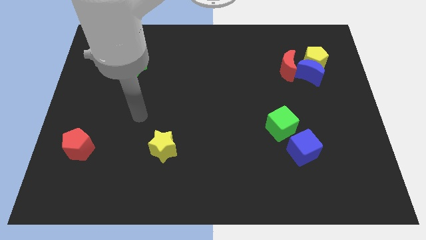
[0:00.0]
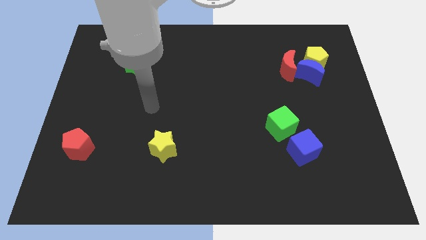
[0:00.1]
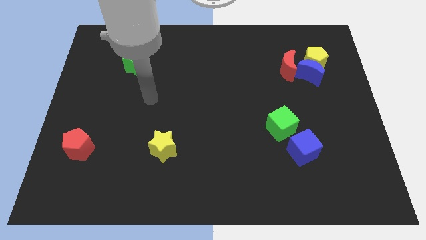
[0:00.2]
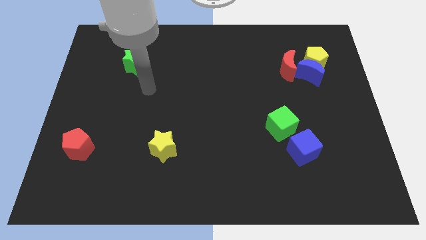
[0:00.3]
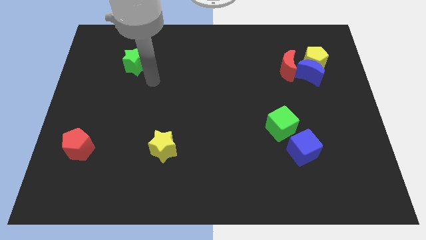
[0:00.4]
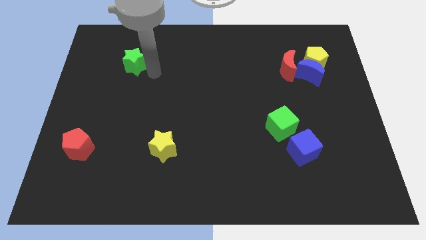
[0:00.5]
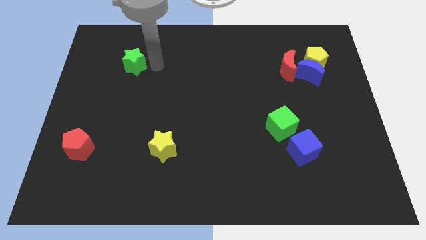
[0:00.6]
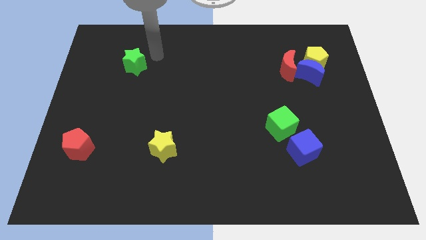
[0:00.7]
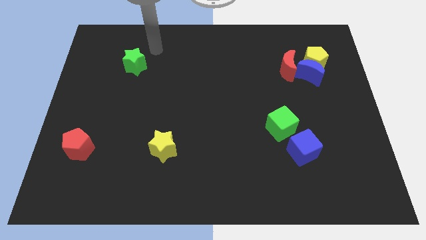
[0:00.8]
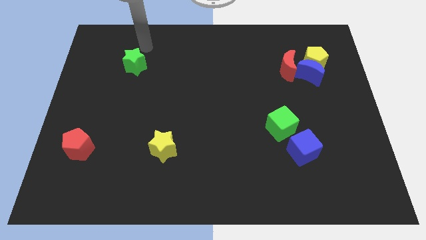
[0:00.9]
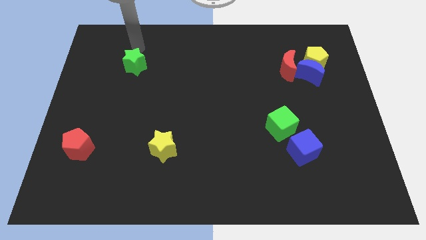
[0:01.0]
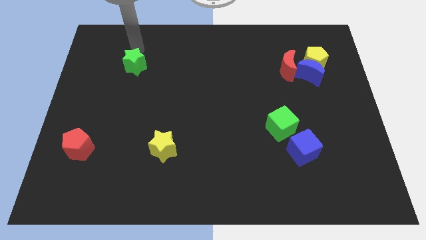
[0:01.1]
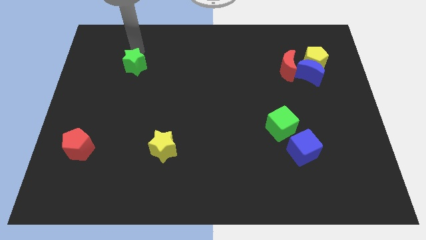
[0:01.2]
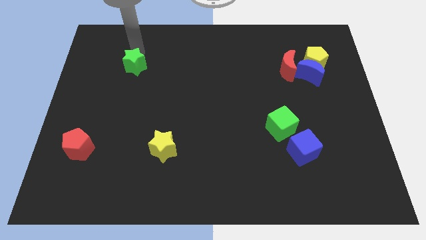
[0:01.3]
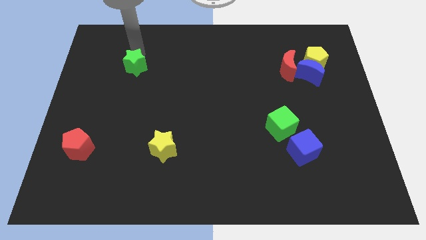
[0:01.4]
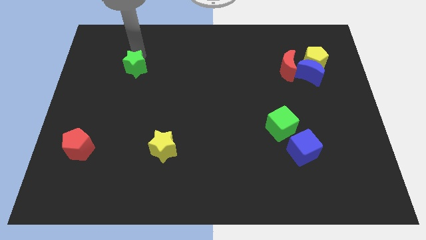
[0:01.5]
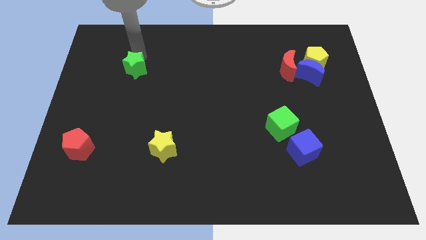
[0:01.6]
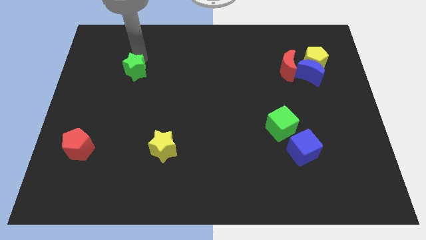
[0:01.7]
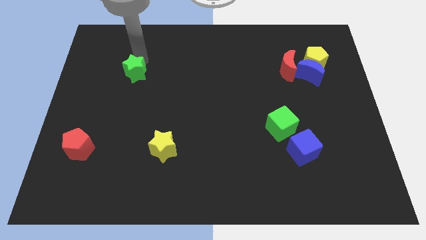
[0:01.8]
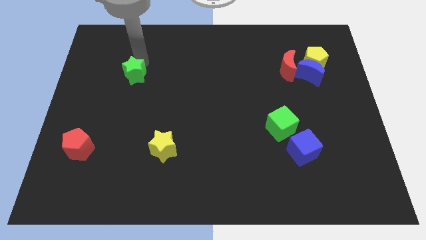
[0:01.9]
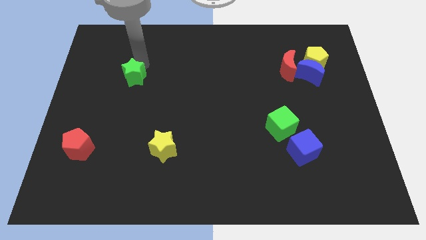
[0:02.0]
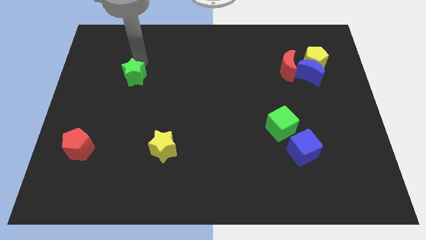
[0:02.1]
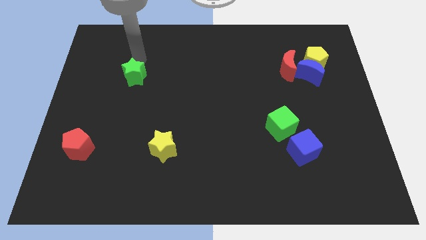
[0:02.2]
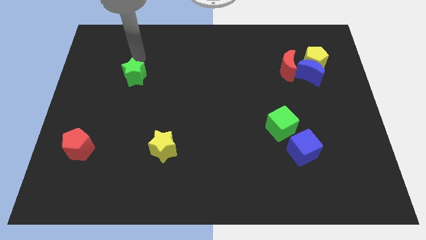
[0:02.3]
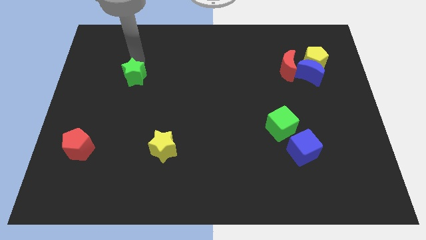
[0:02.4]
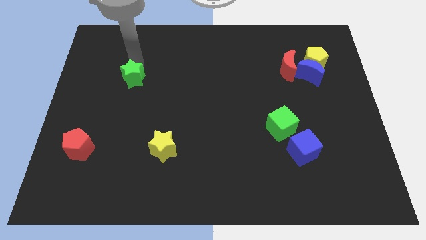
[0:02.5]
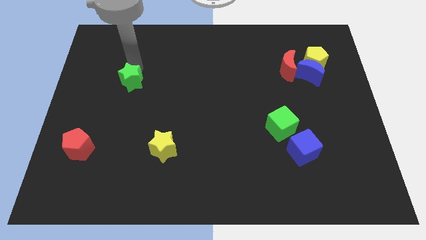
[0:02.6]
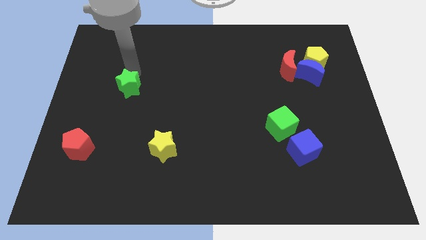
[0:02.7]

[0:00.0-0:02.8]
push the green star a little downwards

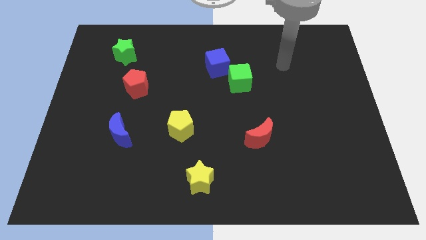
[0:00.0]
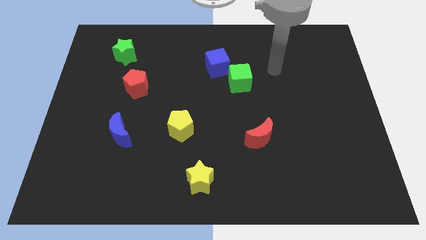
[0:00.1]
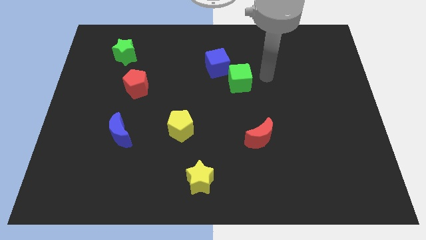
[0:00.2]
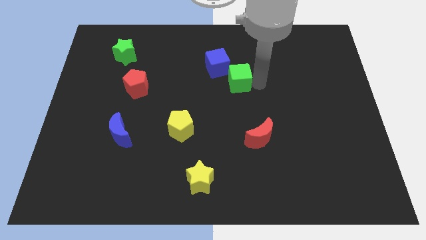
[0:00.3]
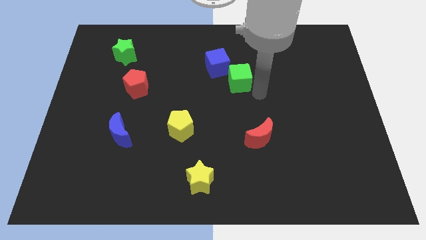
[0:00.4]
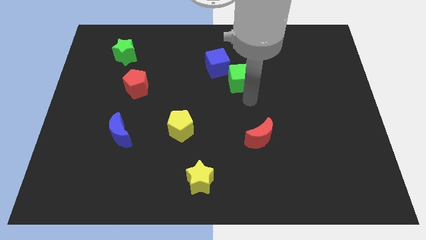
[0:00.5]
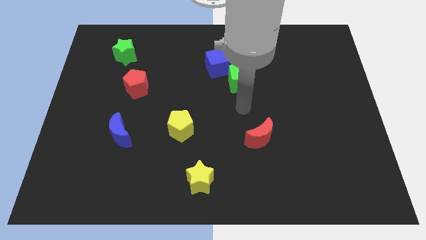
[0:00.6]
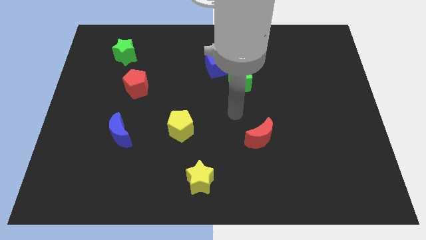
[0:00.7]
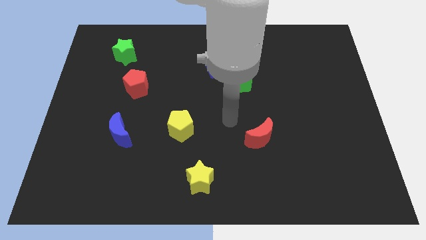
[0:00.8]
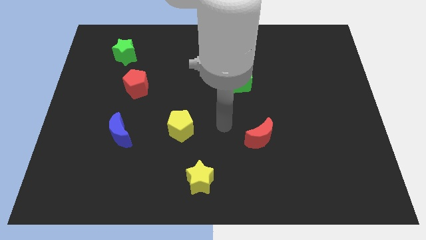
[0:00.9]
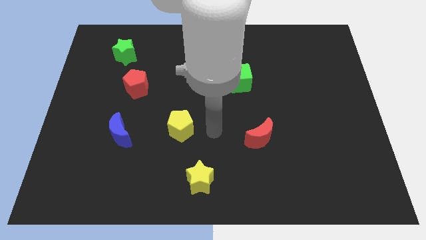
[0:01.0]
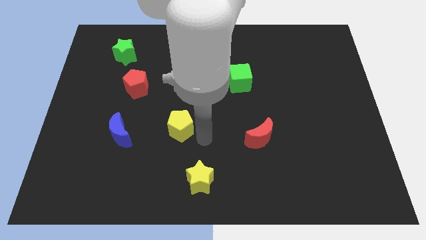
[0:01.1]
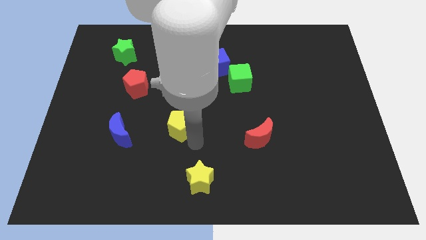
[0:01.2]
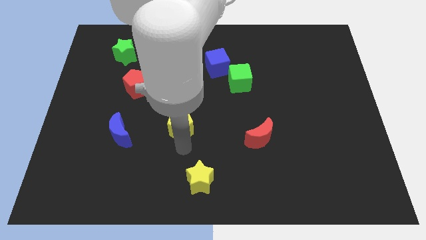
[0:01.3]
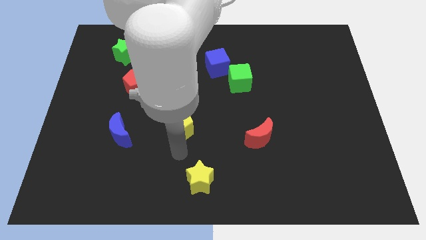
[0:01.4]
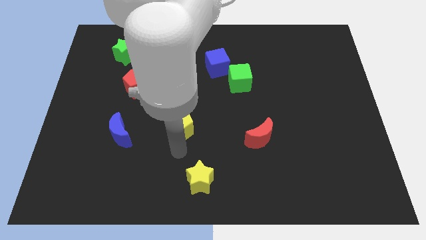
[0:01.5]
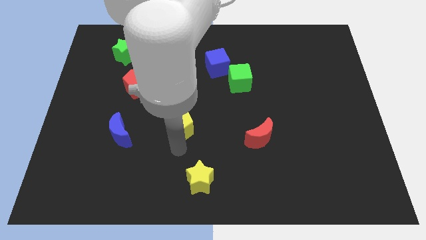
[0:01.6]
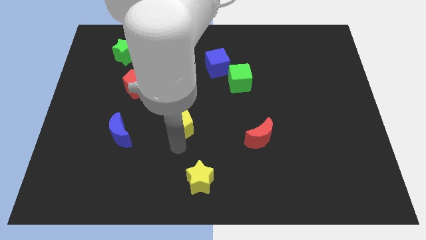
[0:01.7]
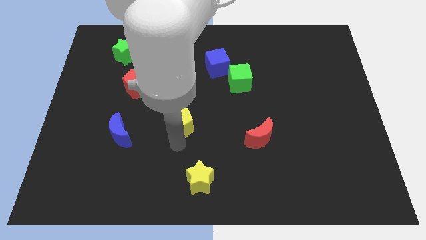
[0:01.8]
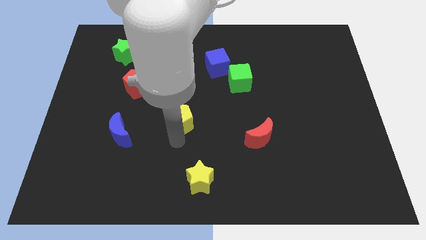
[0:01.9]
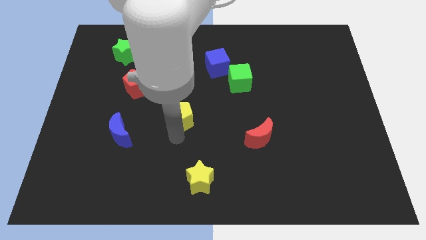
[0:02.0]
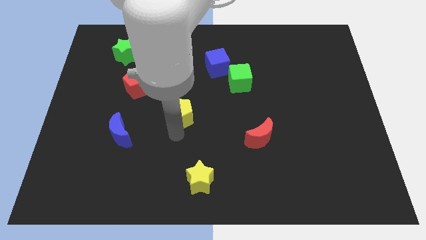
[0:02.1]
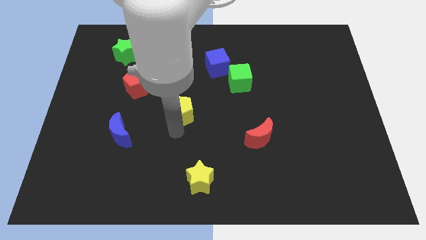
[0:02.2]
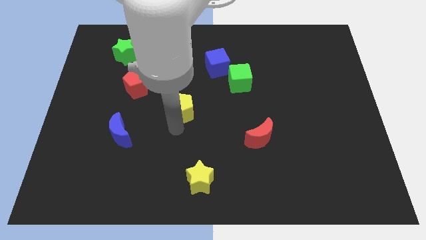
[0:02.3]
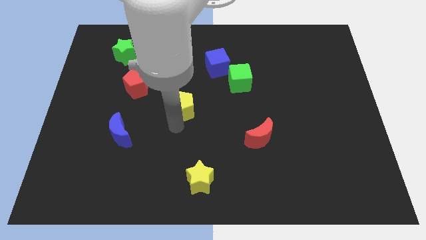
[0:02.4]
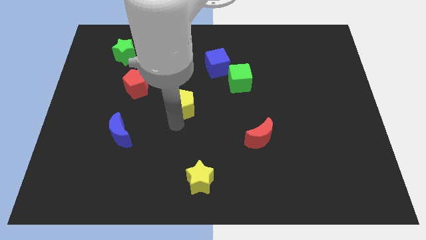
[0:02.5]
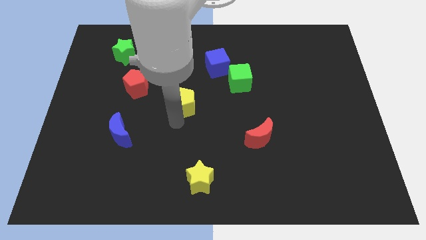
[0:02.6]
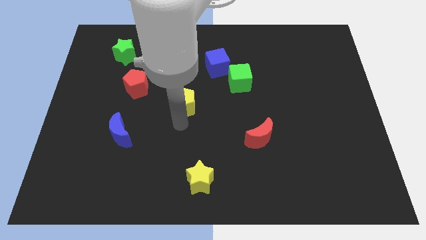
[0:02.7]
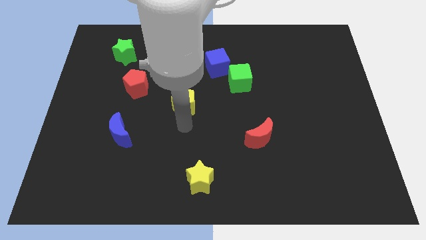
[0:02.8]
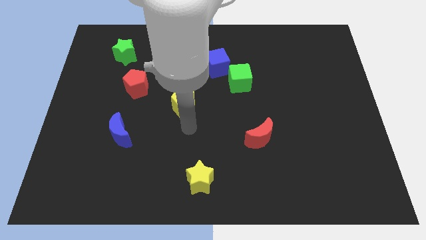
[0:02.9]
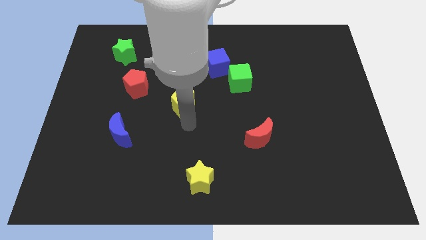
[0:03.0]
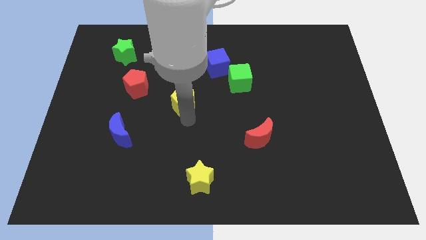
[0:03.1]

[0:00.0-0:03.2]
push the yellow pentagon upwards slightly

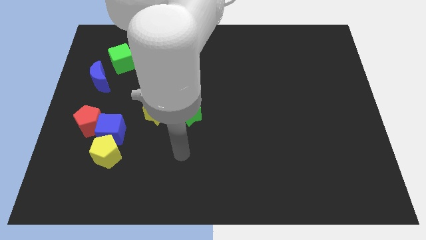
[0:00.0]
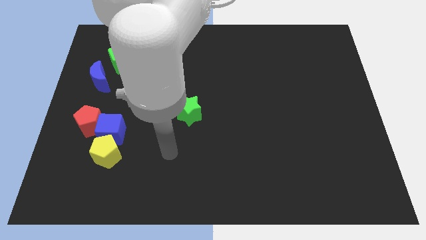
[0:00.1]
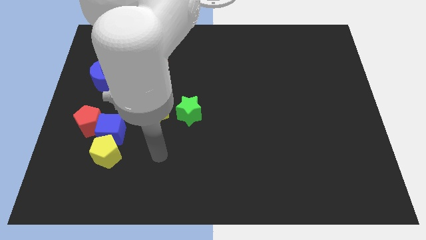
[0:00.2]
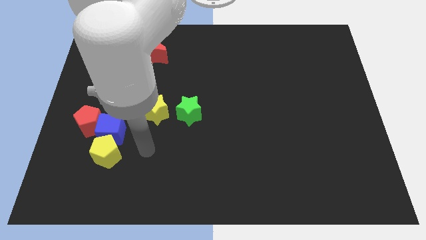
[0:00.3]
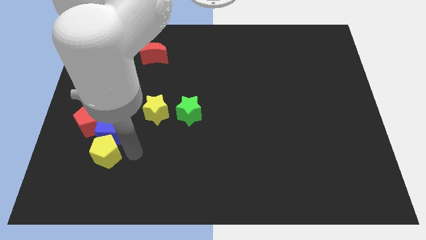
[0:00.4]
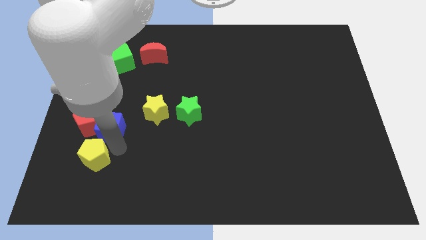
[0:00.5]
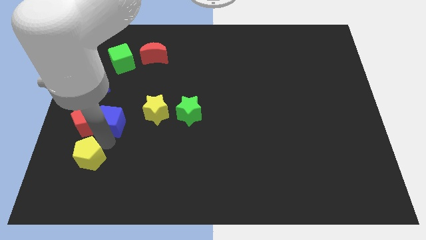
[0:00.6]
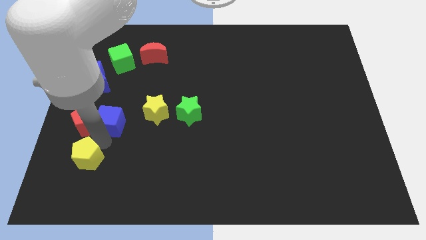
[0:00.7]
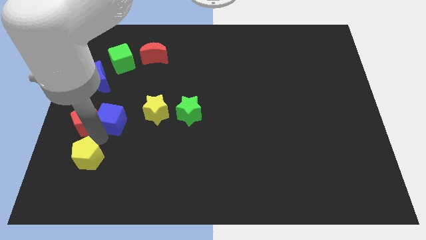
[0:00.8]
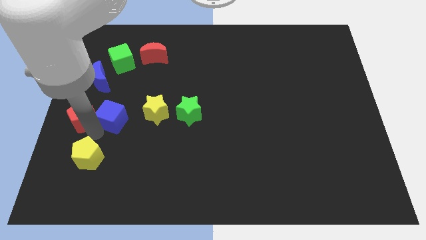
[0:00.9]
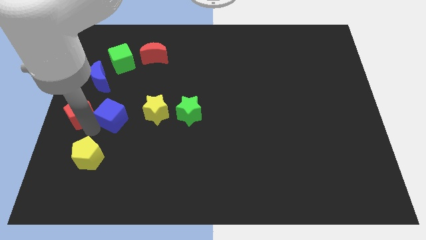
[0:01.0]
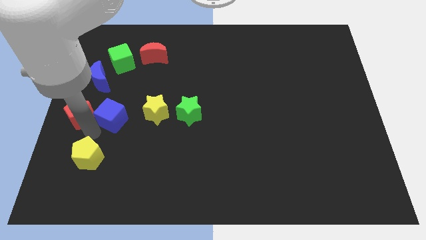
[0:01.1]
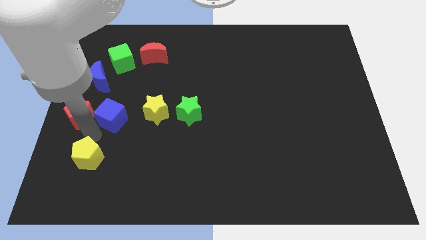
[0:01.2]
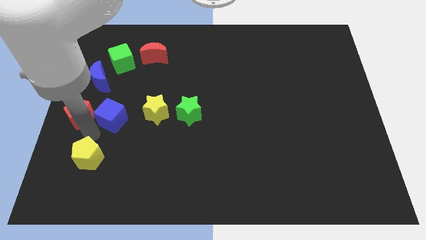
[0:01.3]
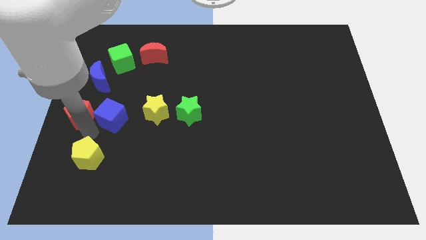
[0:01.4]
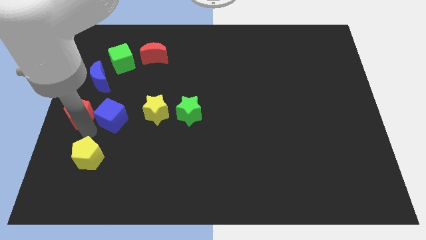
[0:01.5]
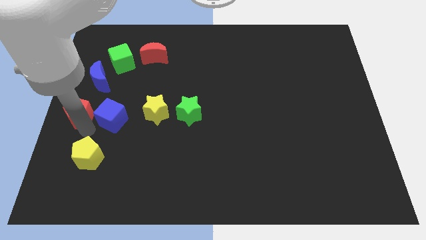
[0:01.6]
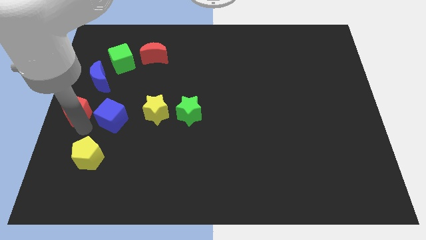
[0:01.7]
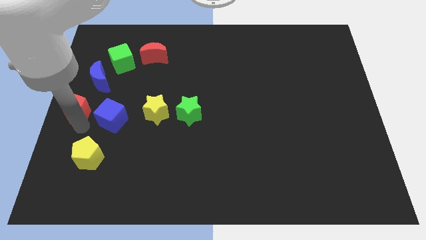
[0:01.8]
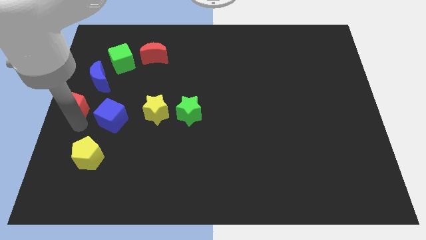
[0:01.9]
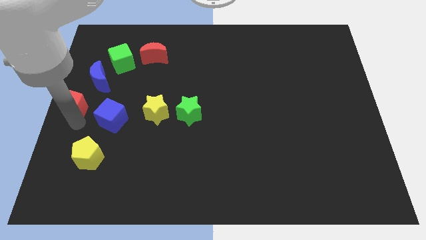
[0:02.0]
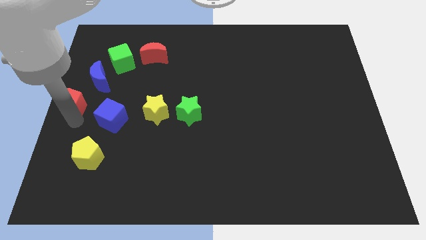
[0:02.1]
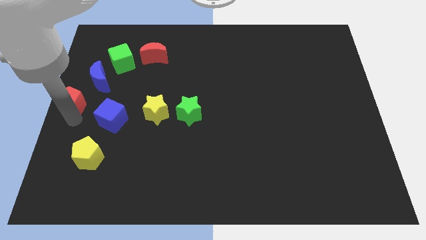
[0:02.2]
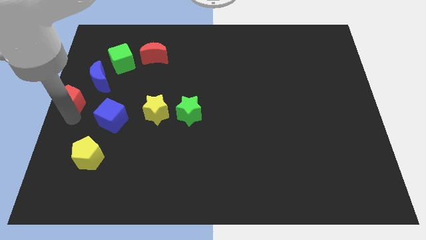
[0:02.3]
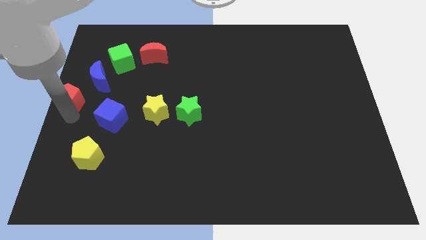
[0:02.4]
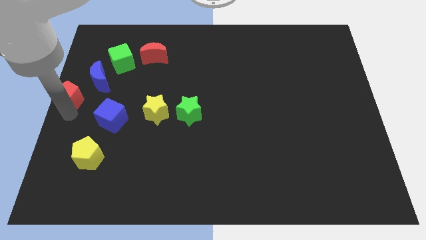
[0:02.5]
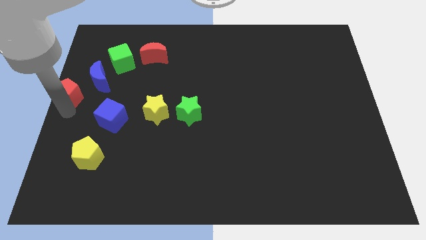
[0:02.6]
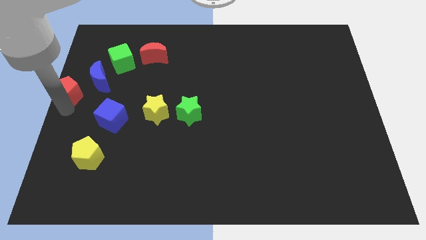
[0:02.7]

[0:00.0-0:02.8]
push the red pentagon a bit upwards
